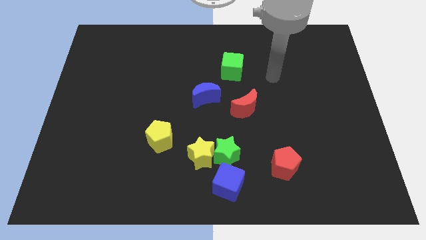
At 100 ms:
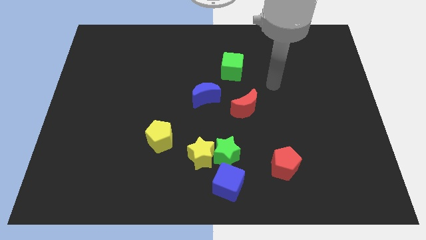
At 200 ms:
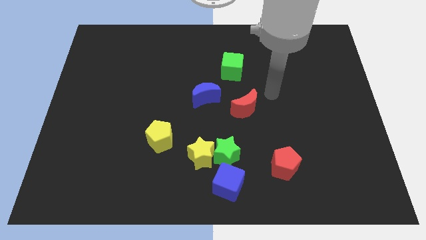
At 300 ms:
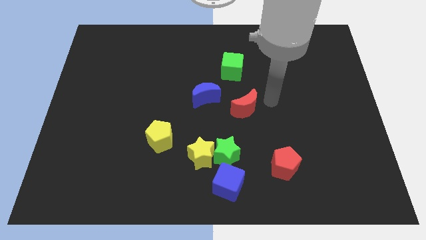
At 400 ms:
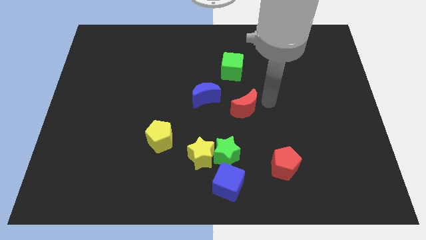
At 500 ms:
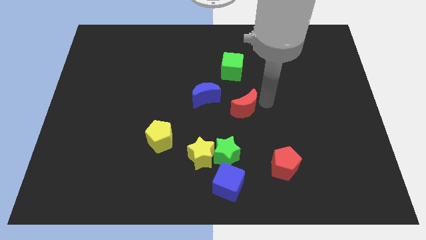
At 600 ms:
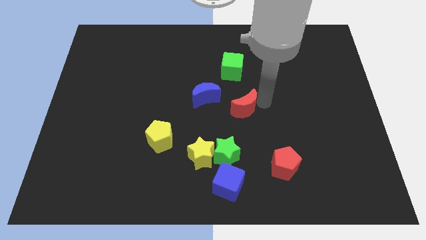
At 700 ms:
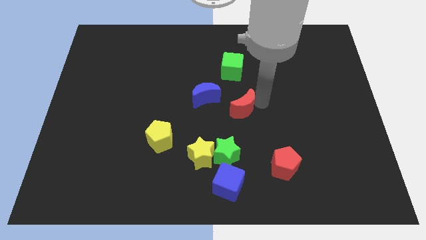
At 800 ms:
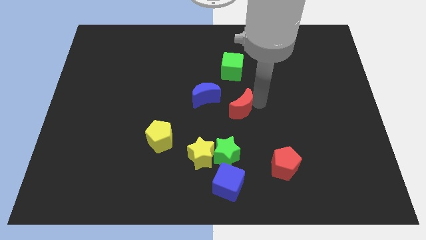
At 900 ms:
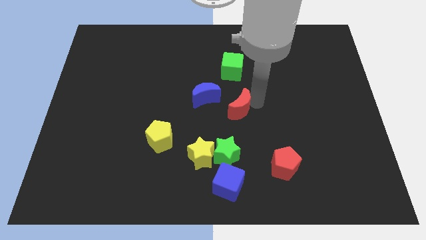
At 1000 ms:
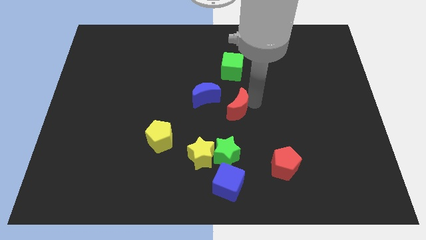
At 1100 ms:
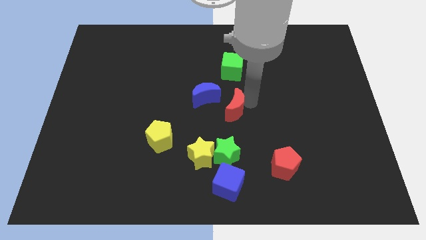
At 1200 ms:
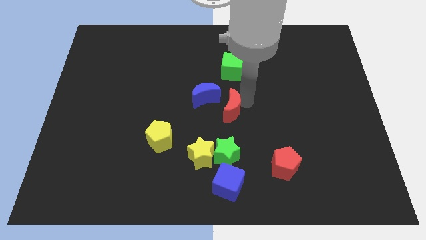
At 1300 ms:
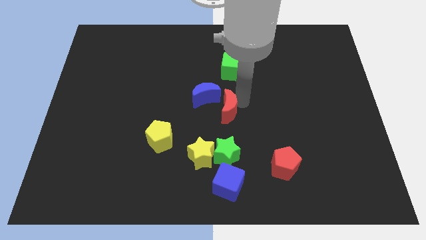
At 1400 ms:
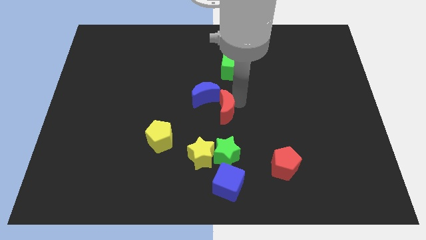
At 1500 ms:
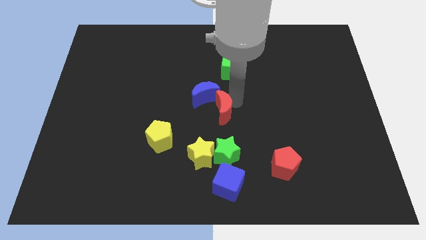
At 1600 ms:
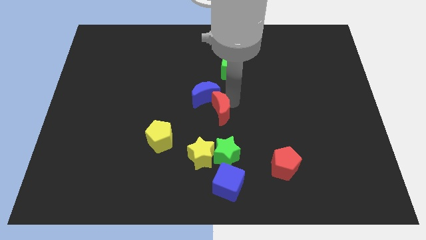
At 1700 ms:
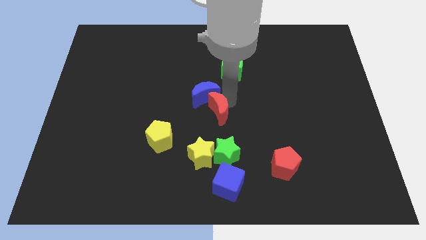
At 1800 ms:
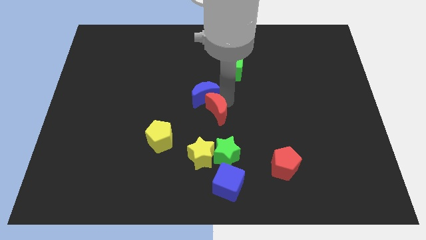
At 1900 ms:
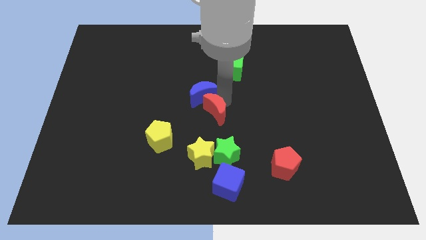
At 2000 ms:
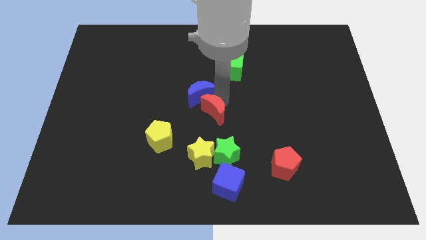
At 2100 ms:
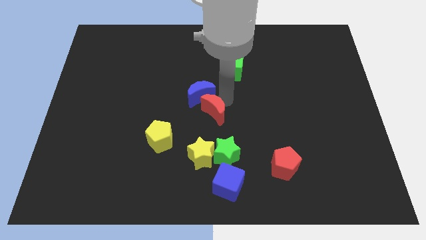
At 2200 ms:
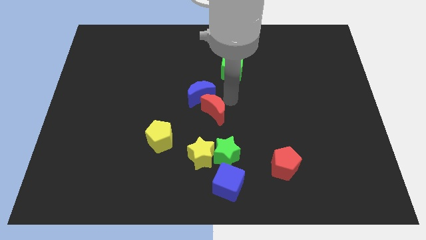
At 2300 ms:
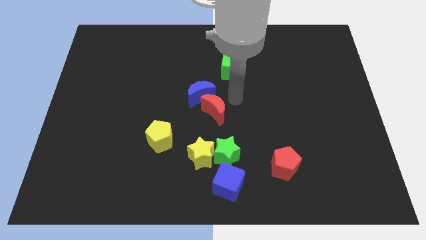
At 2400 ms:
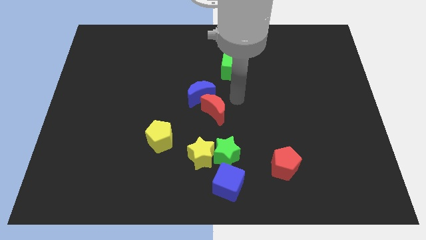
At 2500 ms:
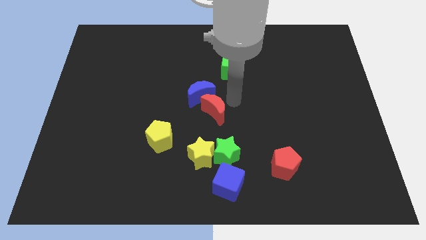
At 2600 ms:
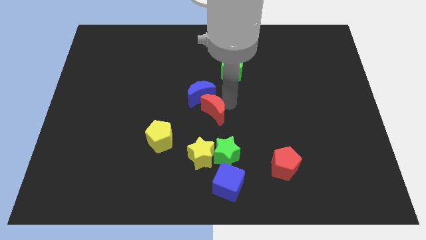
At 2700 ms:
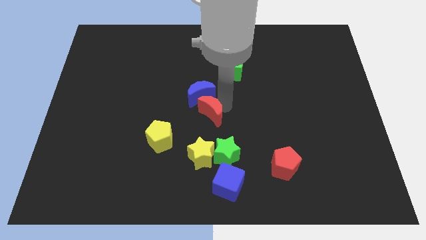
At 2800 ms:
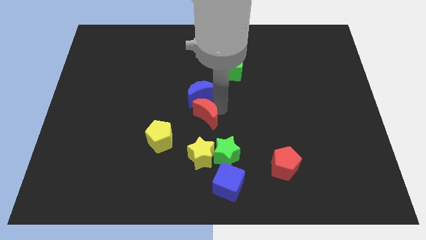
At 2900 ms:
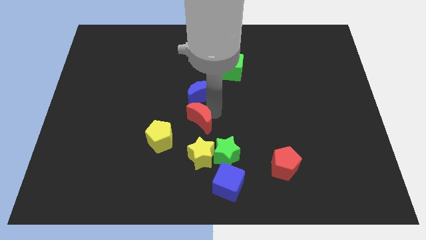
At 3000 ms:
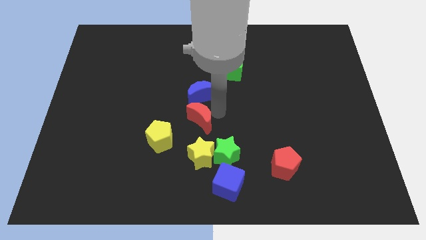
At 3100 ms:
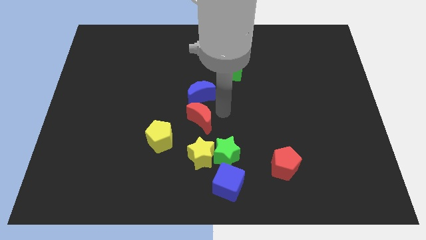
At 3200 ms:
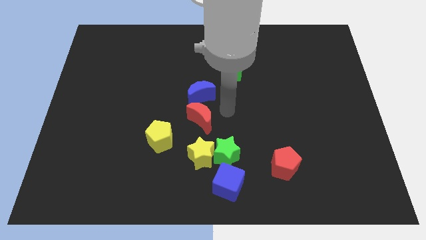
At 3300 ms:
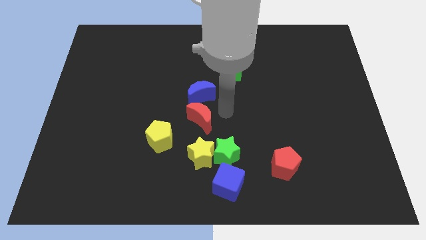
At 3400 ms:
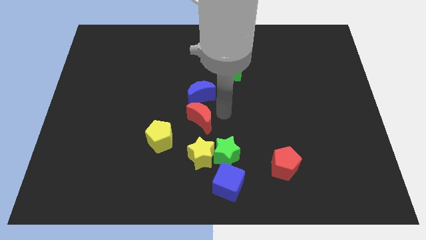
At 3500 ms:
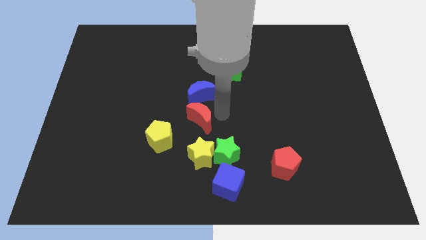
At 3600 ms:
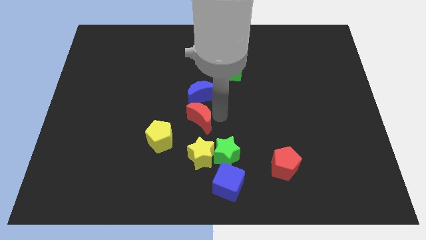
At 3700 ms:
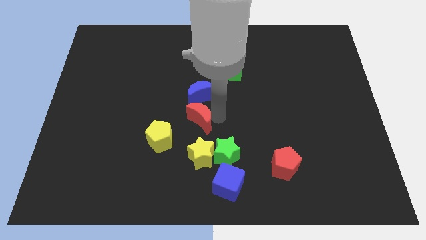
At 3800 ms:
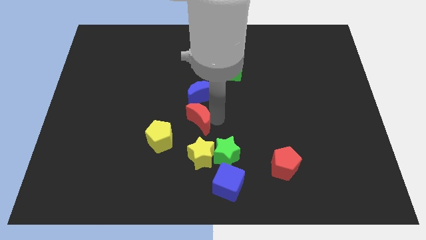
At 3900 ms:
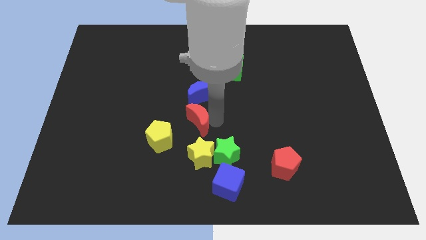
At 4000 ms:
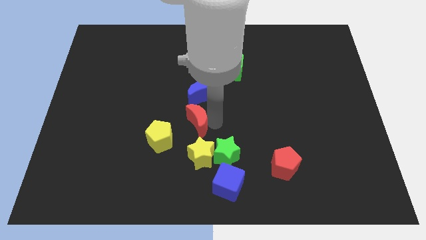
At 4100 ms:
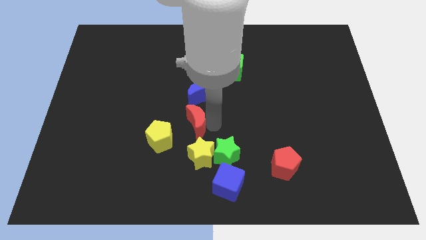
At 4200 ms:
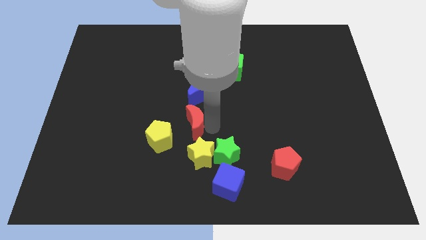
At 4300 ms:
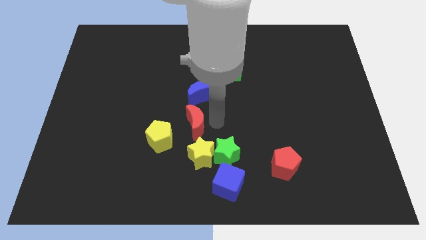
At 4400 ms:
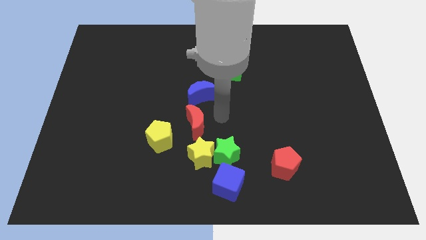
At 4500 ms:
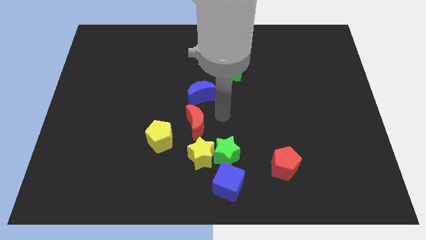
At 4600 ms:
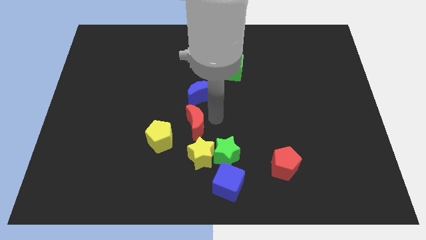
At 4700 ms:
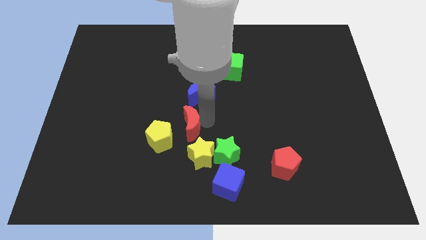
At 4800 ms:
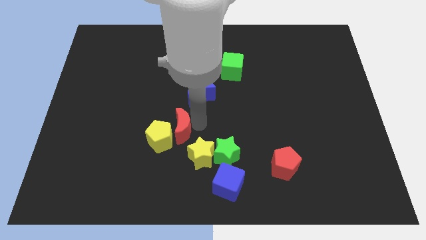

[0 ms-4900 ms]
push the red moon close to the yellow pentagon

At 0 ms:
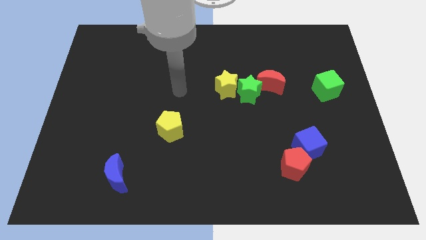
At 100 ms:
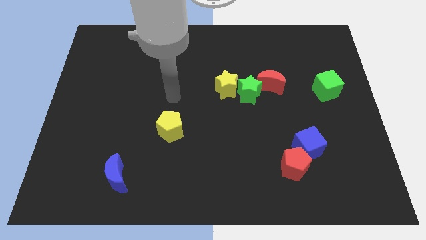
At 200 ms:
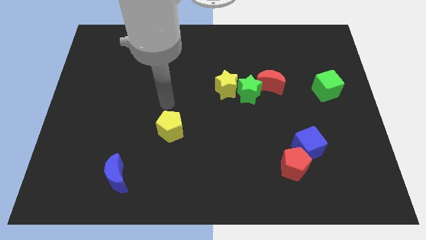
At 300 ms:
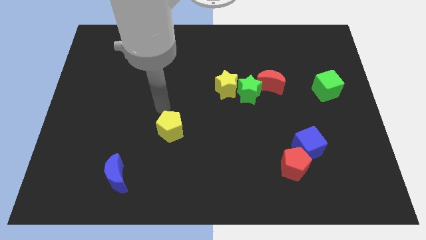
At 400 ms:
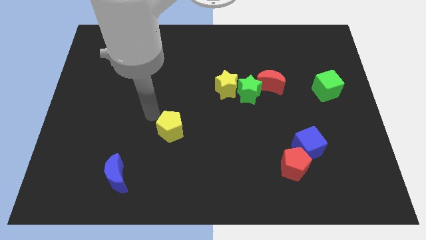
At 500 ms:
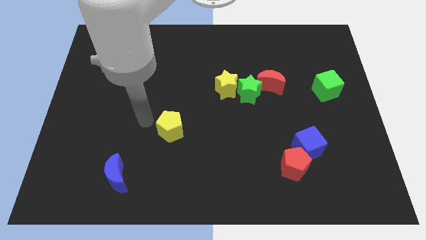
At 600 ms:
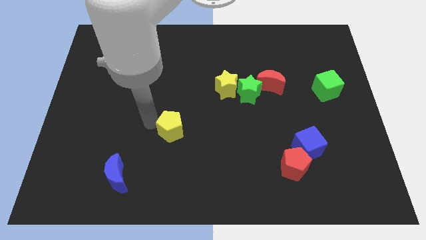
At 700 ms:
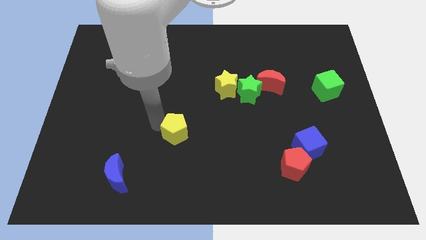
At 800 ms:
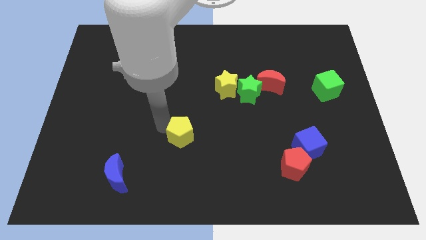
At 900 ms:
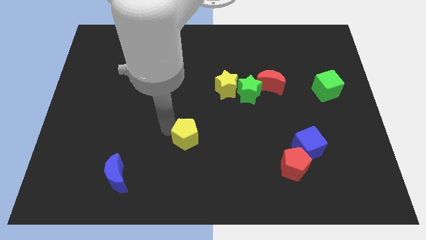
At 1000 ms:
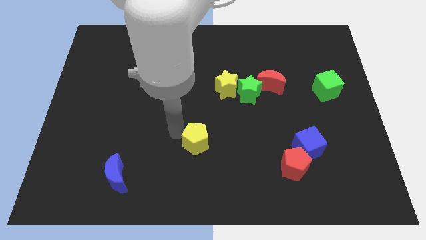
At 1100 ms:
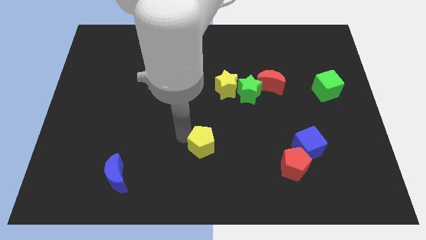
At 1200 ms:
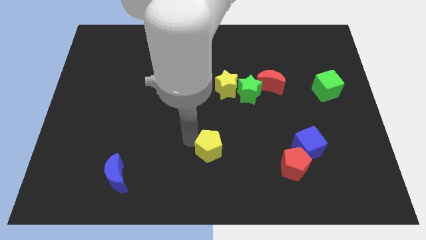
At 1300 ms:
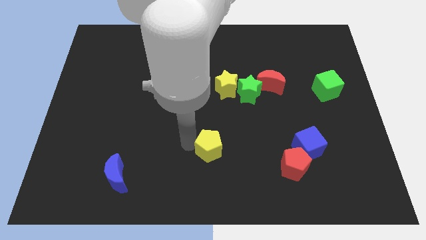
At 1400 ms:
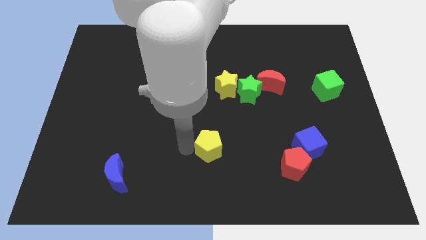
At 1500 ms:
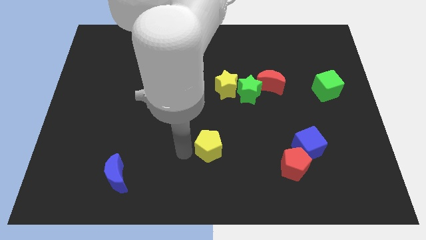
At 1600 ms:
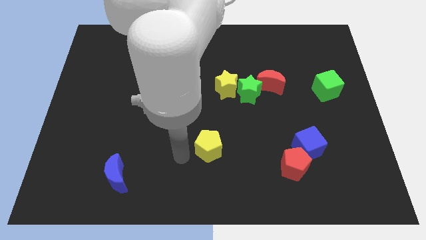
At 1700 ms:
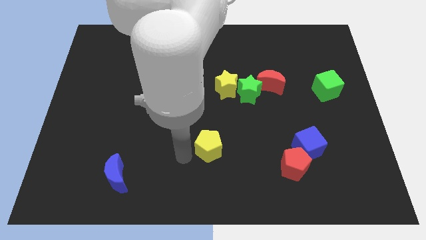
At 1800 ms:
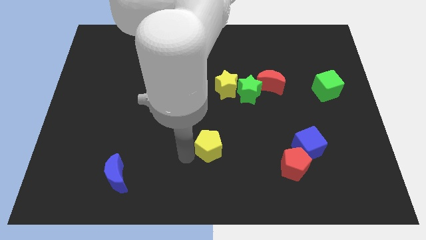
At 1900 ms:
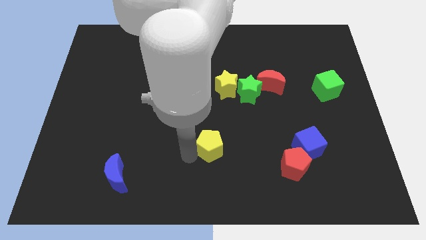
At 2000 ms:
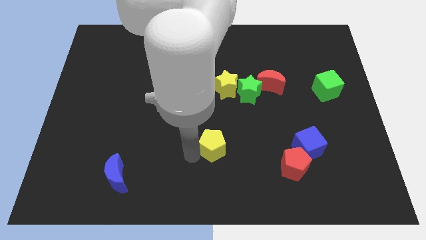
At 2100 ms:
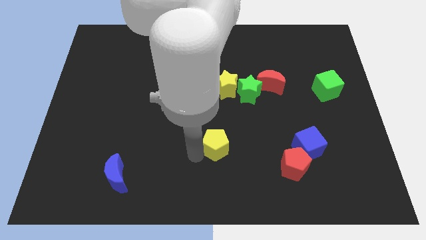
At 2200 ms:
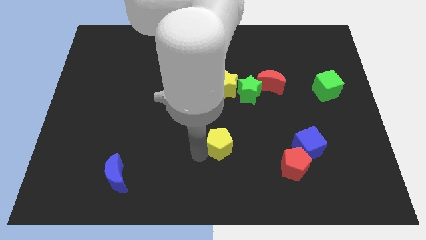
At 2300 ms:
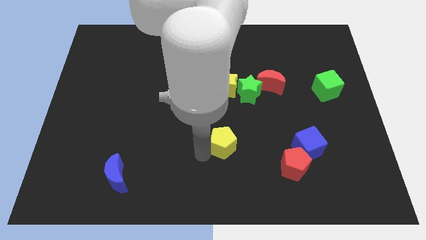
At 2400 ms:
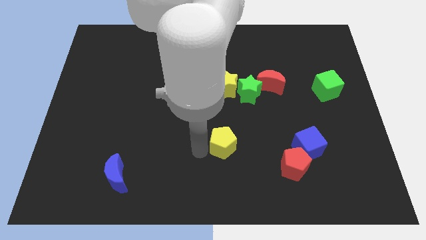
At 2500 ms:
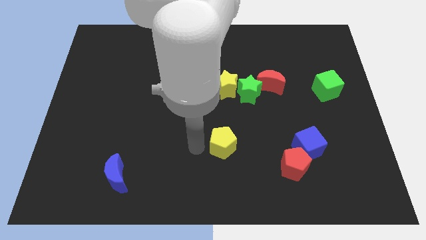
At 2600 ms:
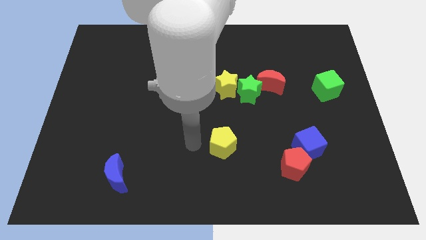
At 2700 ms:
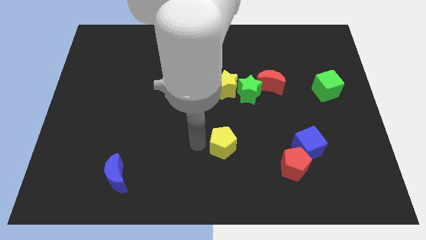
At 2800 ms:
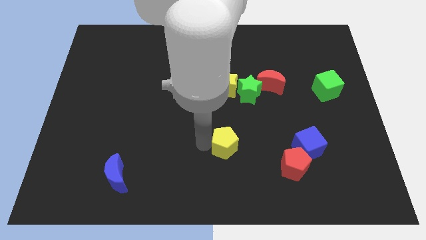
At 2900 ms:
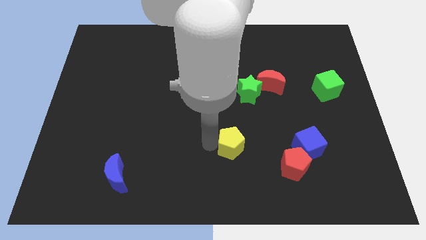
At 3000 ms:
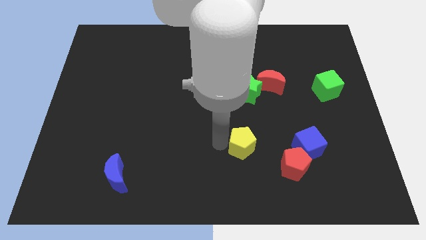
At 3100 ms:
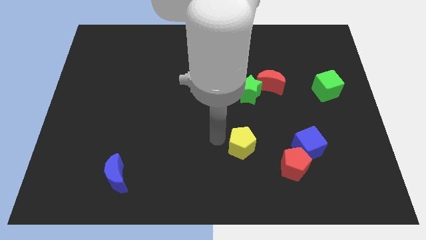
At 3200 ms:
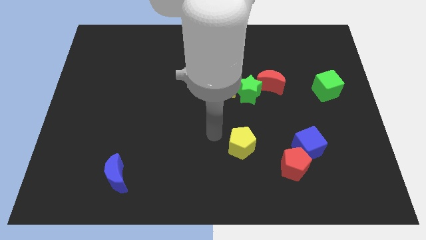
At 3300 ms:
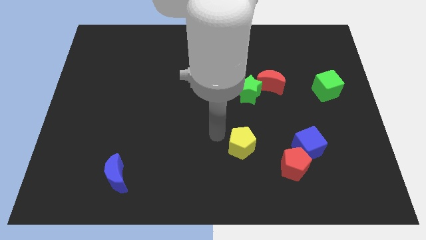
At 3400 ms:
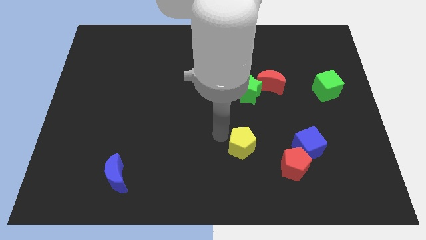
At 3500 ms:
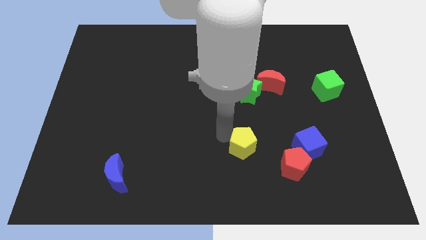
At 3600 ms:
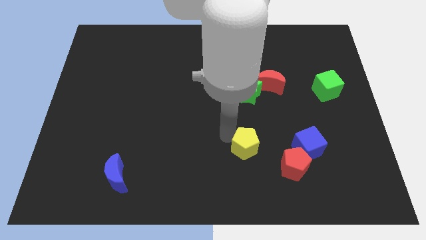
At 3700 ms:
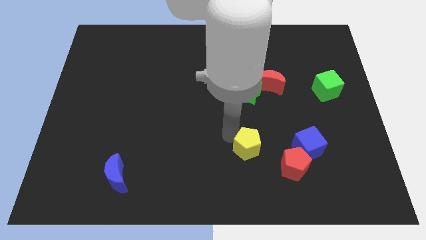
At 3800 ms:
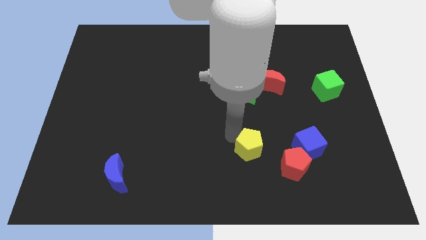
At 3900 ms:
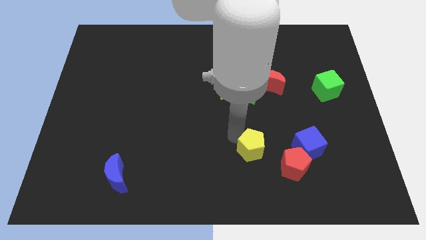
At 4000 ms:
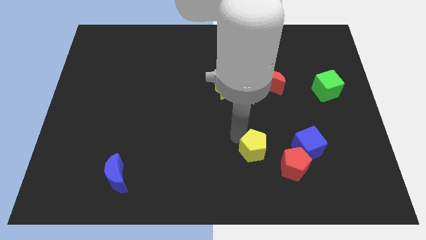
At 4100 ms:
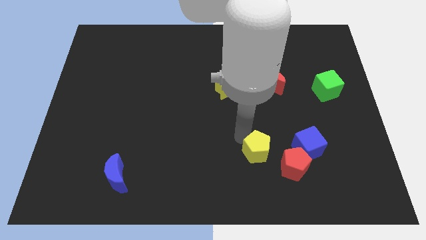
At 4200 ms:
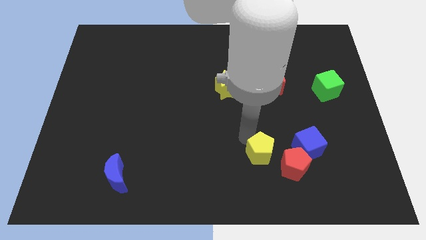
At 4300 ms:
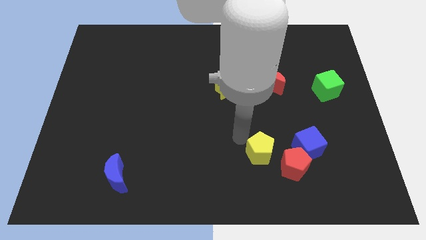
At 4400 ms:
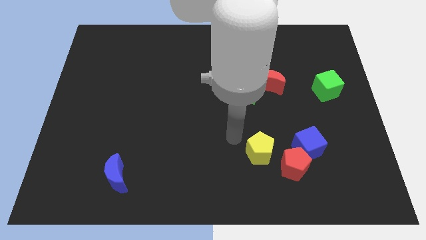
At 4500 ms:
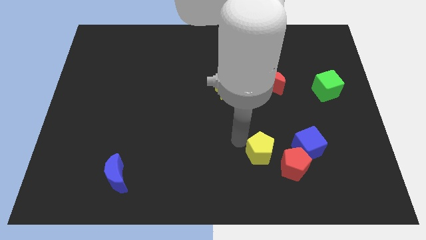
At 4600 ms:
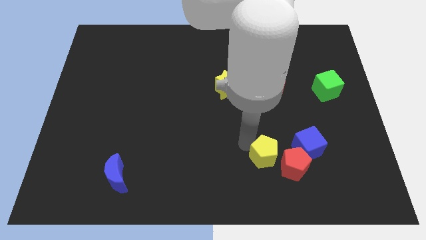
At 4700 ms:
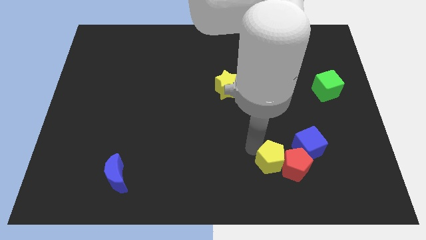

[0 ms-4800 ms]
move the yellow pentagon towards the red pentagon
